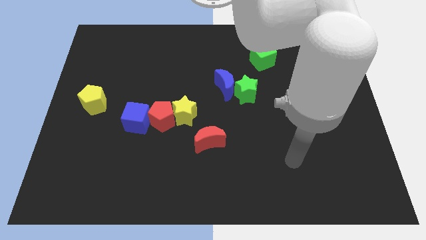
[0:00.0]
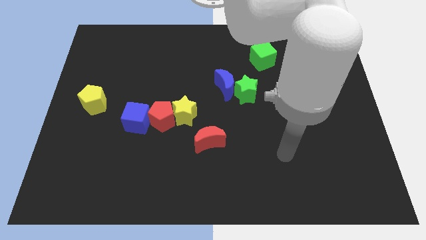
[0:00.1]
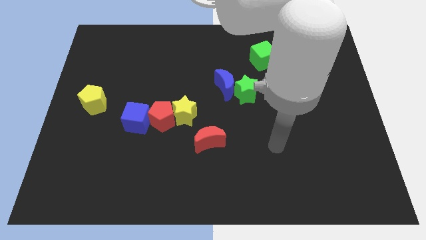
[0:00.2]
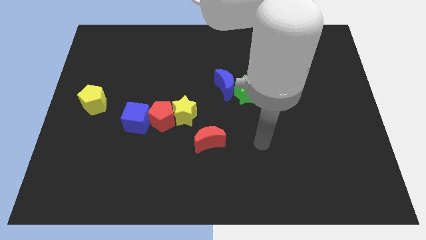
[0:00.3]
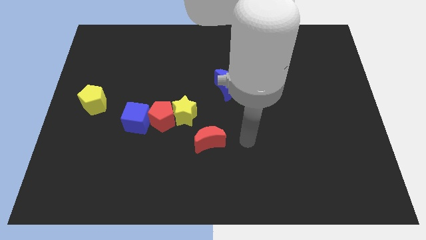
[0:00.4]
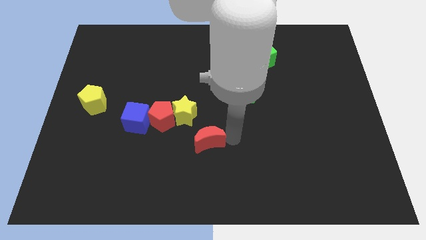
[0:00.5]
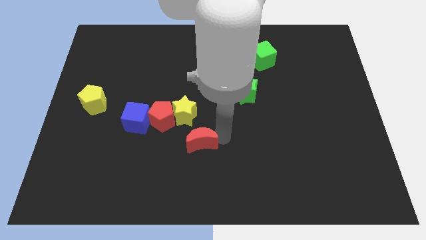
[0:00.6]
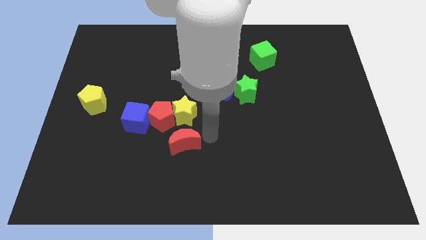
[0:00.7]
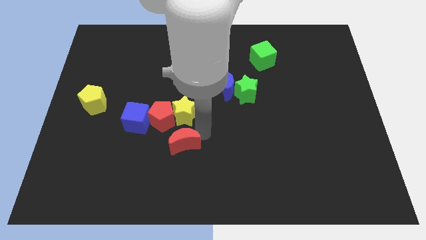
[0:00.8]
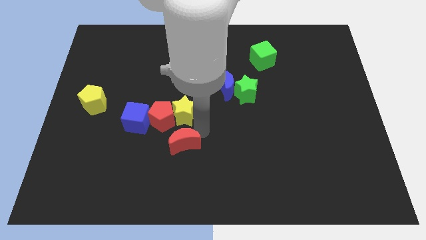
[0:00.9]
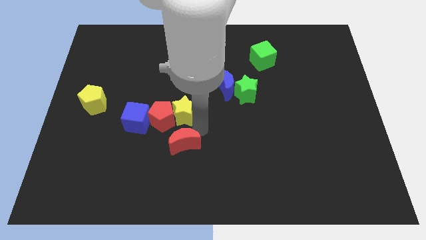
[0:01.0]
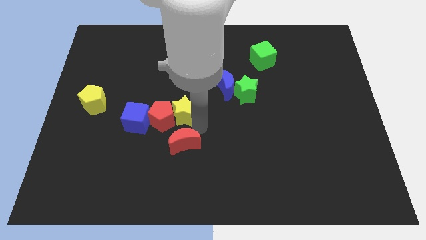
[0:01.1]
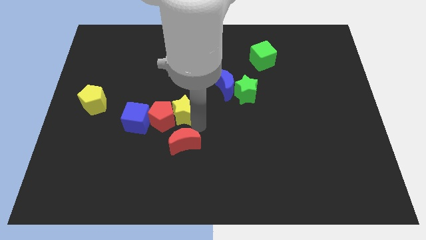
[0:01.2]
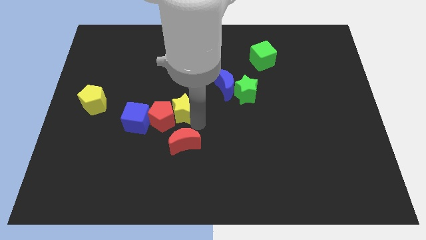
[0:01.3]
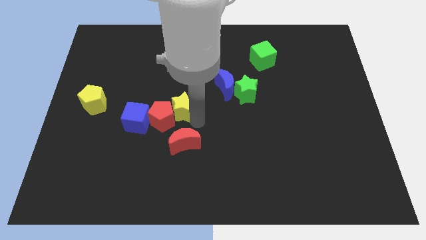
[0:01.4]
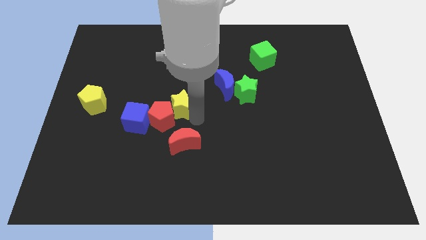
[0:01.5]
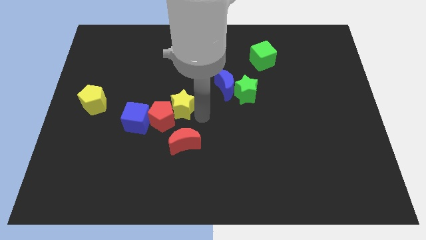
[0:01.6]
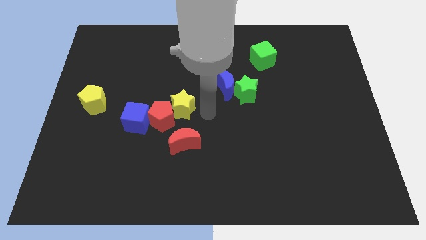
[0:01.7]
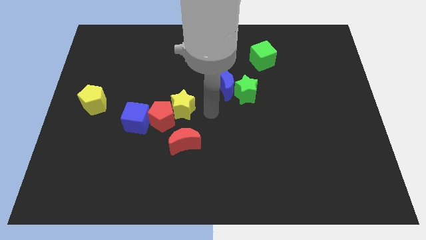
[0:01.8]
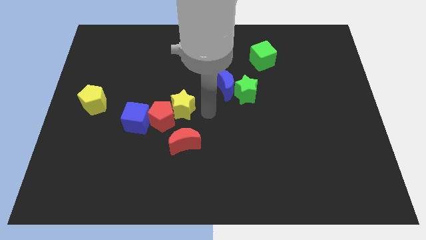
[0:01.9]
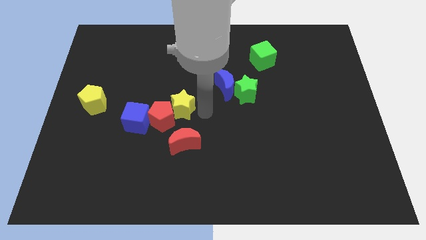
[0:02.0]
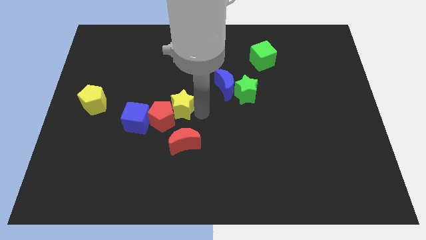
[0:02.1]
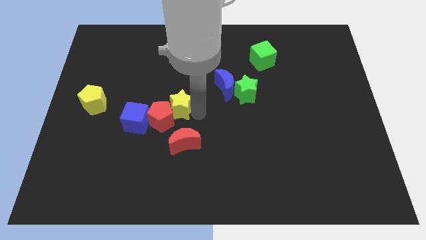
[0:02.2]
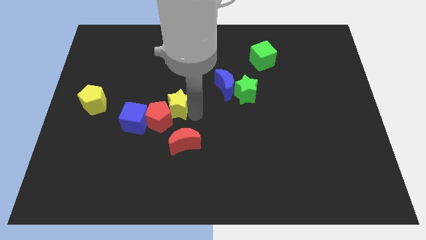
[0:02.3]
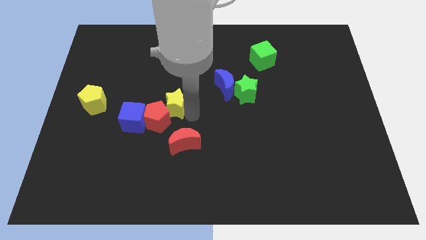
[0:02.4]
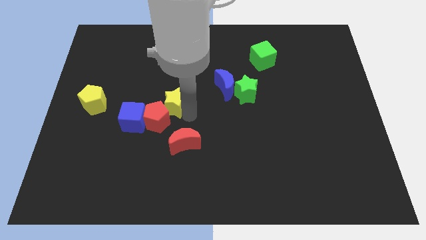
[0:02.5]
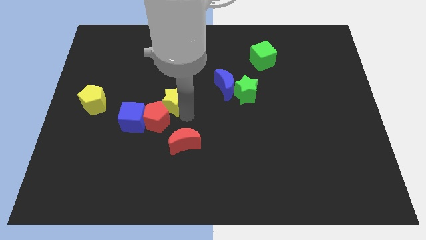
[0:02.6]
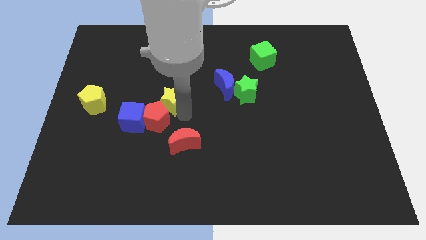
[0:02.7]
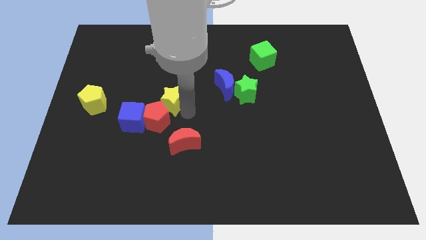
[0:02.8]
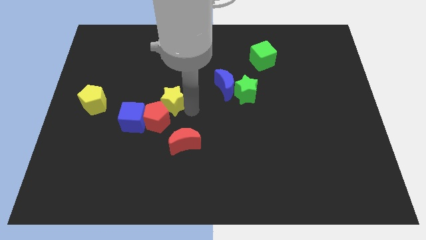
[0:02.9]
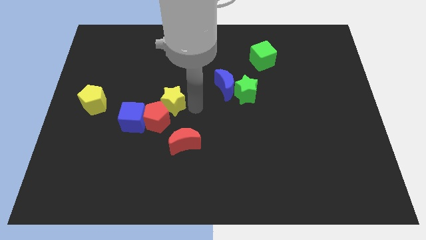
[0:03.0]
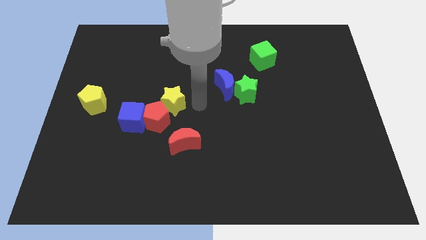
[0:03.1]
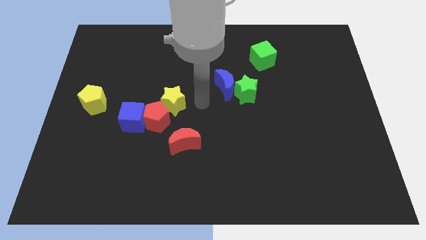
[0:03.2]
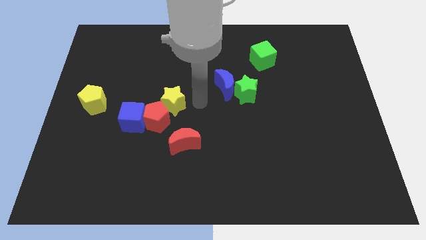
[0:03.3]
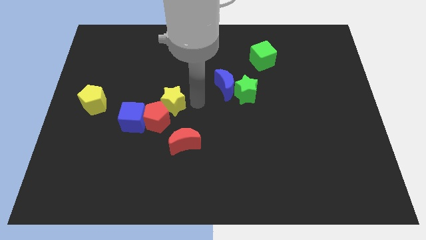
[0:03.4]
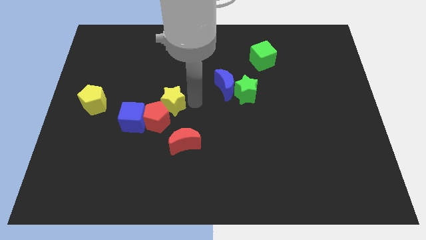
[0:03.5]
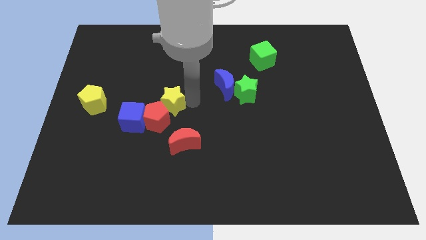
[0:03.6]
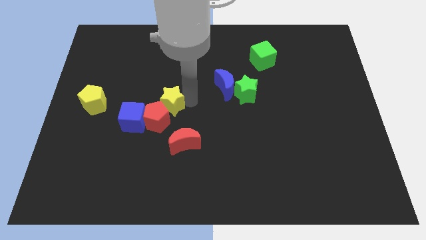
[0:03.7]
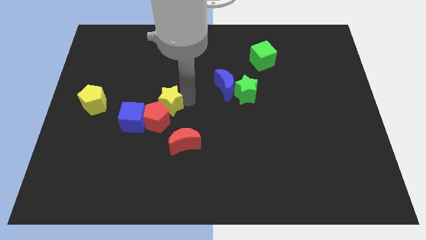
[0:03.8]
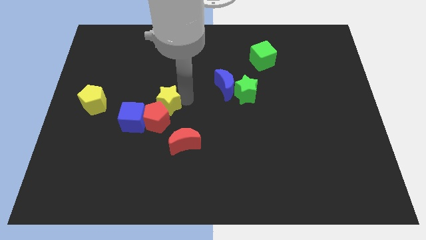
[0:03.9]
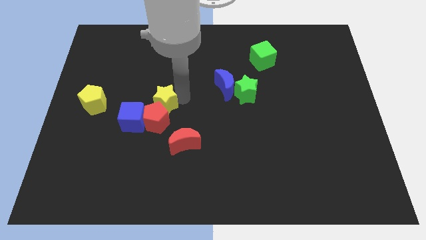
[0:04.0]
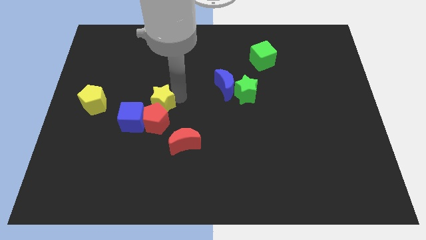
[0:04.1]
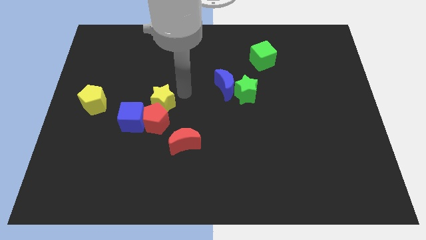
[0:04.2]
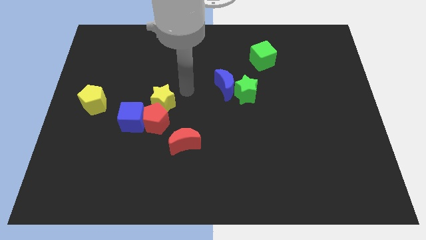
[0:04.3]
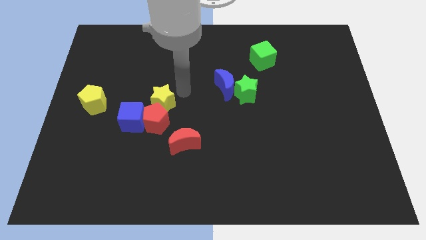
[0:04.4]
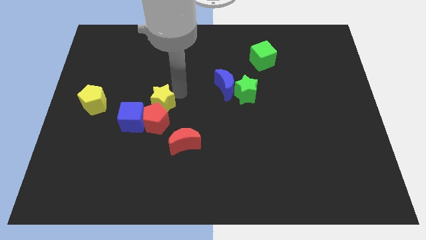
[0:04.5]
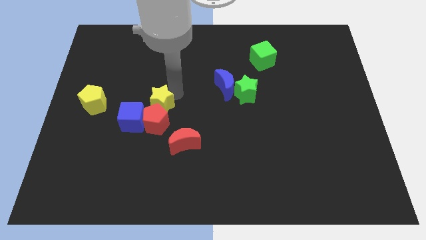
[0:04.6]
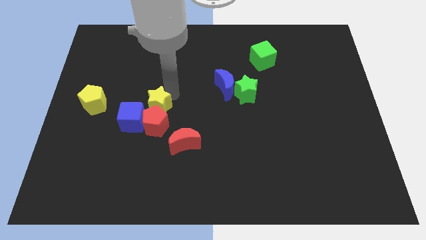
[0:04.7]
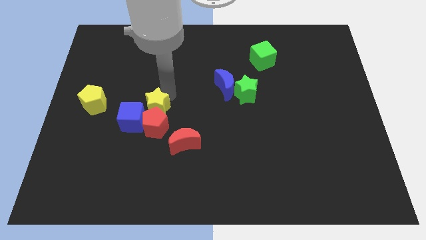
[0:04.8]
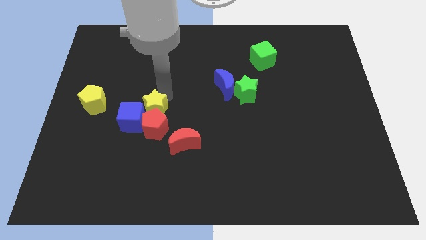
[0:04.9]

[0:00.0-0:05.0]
push the yellow star close to the blue cube

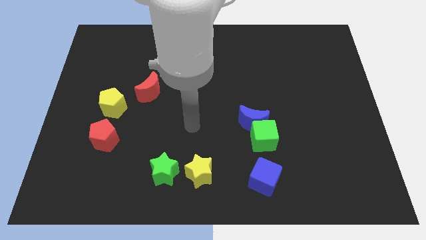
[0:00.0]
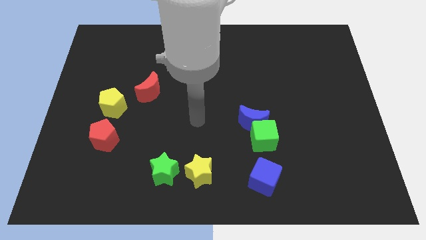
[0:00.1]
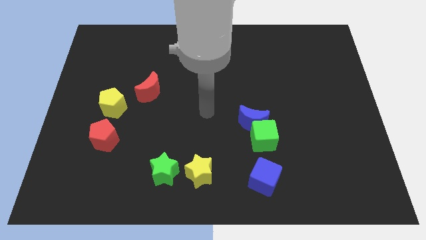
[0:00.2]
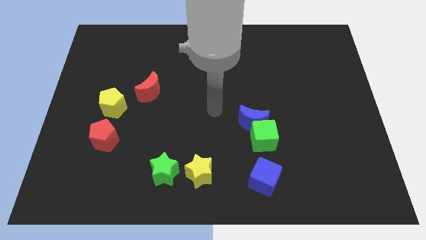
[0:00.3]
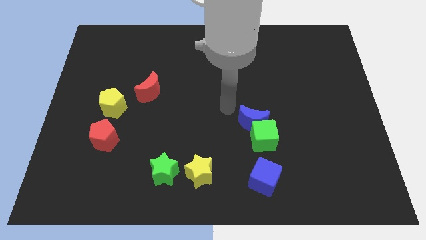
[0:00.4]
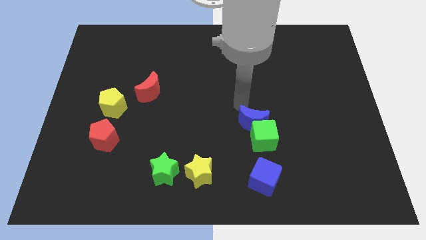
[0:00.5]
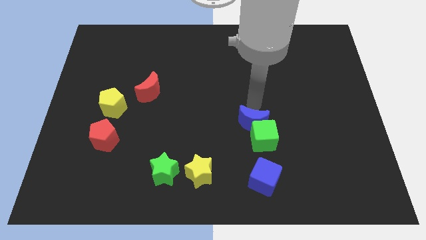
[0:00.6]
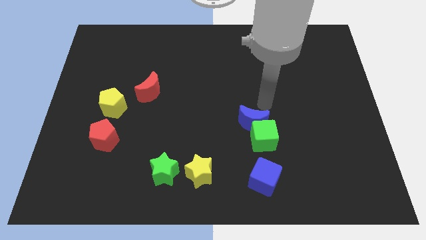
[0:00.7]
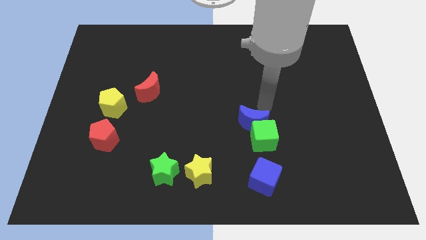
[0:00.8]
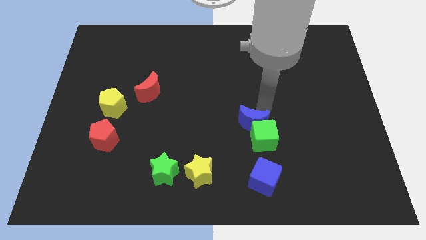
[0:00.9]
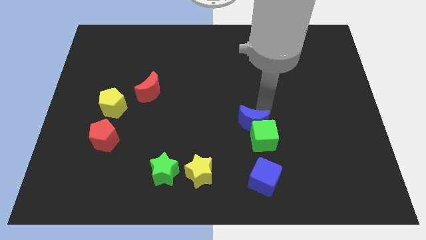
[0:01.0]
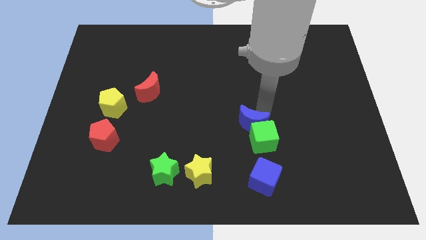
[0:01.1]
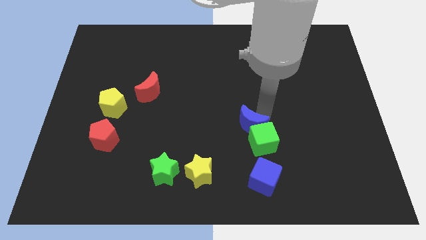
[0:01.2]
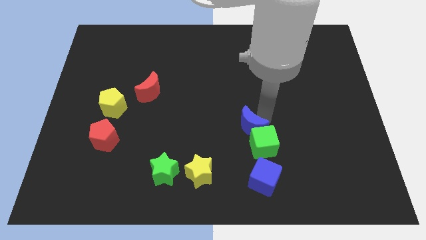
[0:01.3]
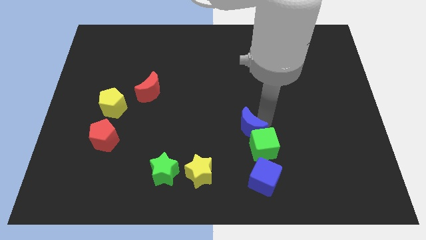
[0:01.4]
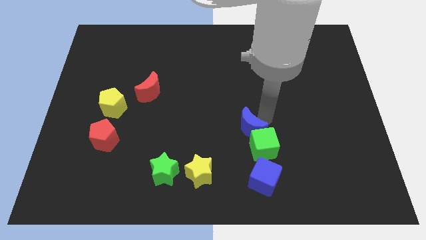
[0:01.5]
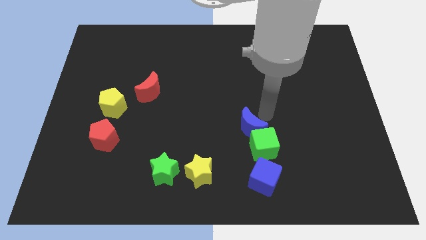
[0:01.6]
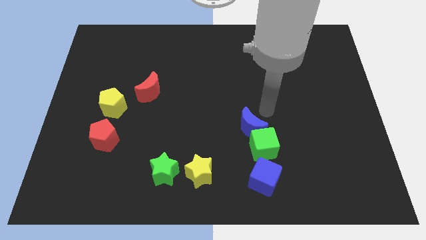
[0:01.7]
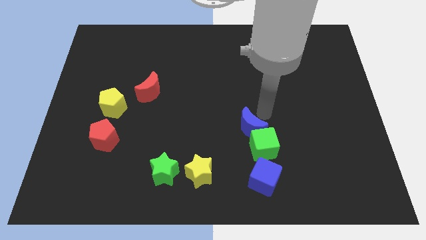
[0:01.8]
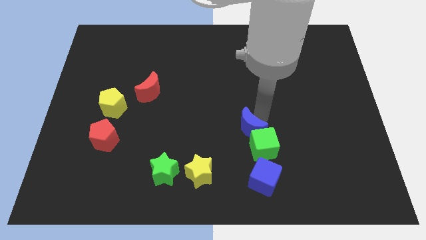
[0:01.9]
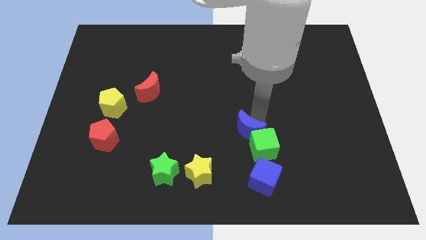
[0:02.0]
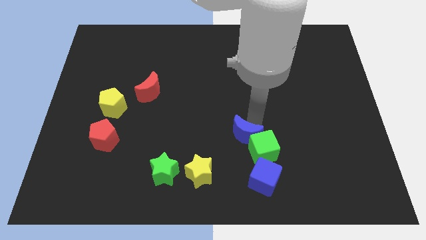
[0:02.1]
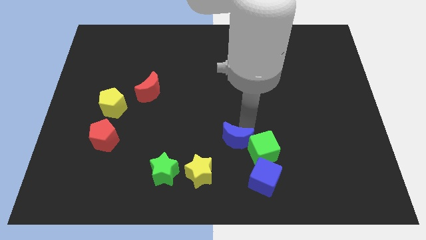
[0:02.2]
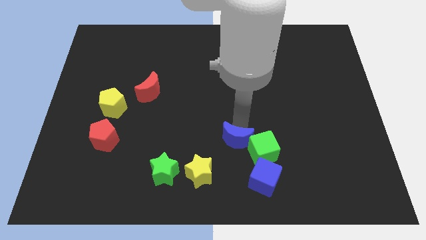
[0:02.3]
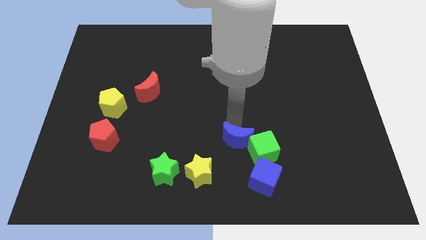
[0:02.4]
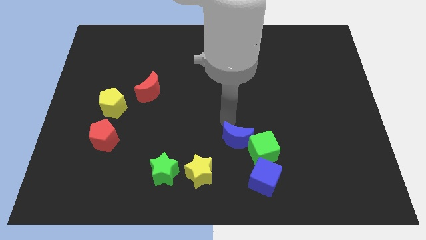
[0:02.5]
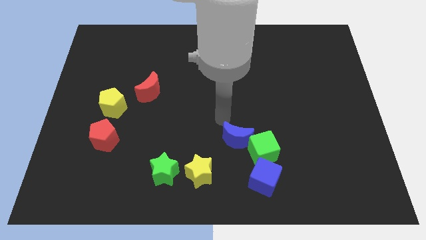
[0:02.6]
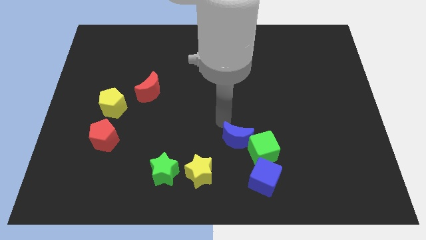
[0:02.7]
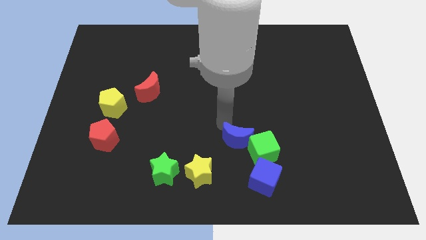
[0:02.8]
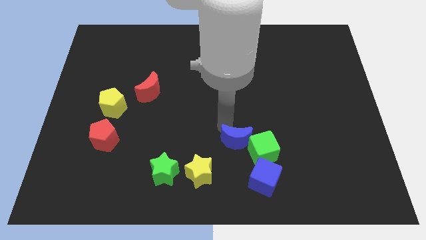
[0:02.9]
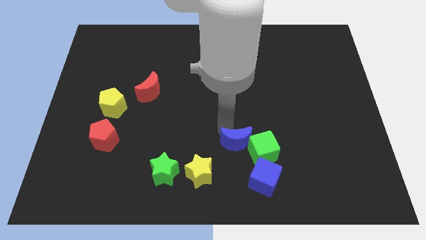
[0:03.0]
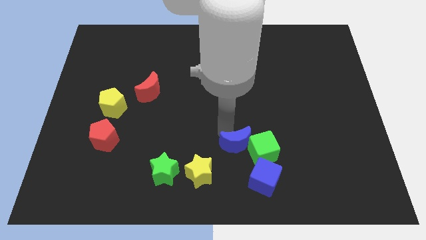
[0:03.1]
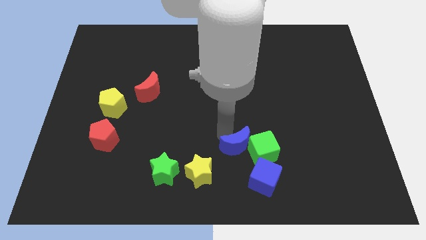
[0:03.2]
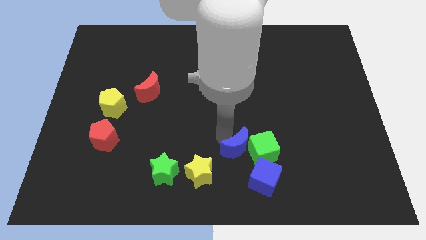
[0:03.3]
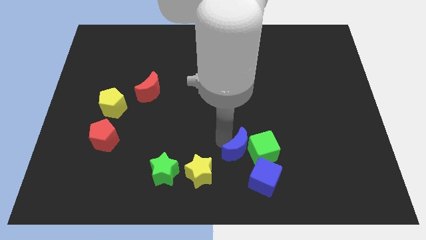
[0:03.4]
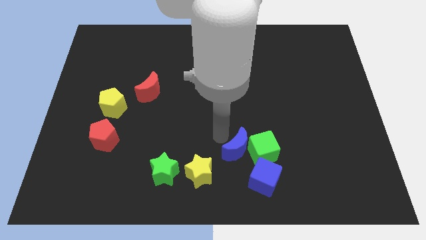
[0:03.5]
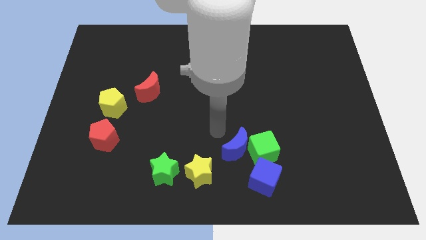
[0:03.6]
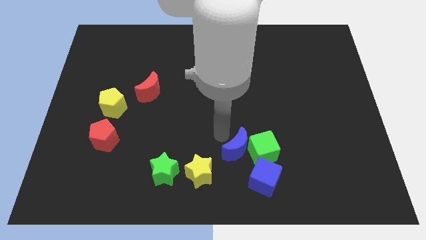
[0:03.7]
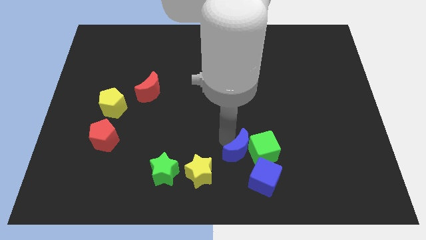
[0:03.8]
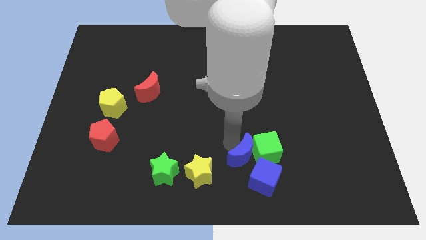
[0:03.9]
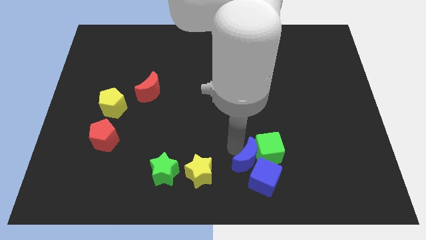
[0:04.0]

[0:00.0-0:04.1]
push the blue moon next to the blue cube
